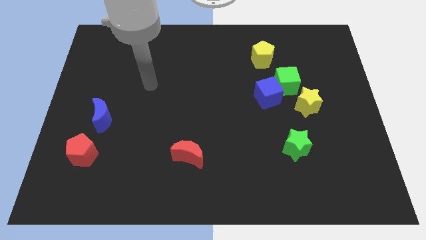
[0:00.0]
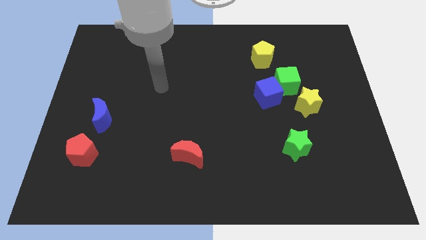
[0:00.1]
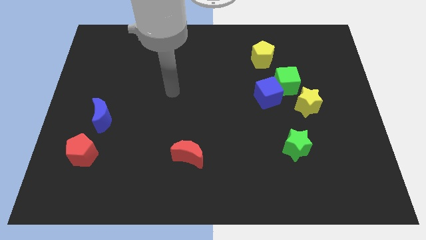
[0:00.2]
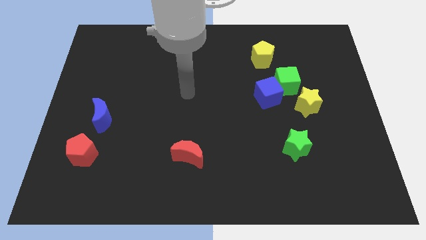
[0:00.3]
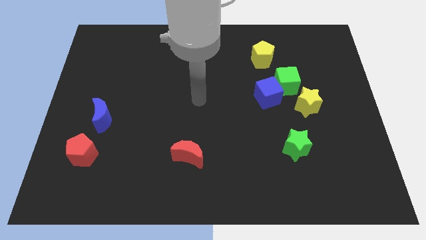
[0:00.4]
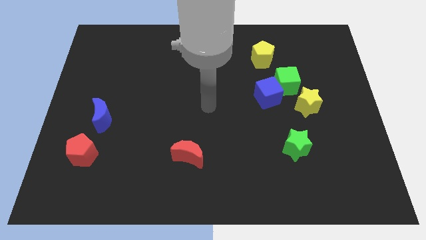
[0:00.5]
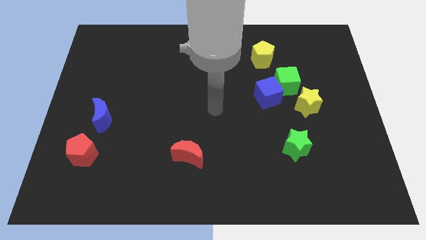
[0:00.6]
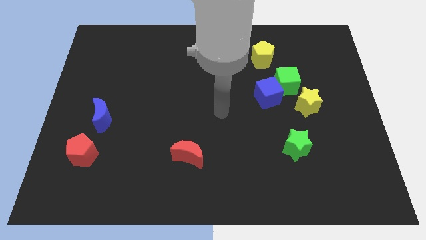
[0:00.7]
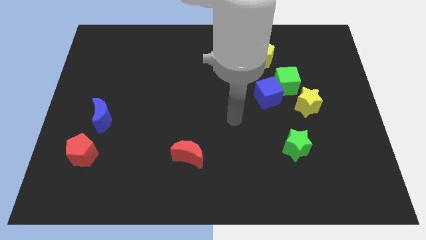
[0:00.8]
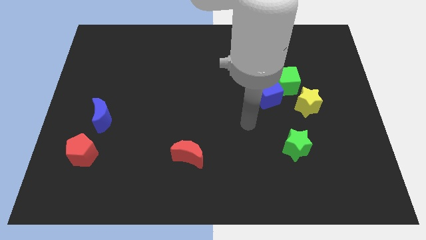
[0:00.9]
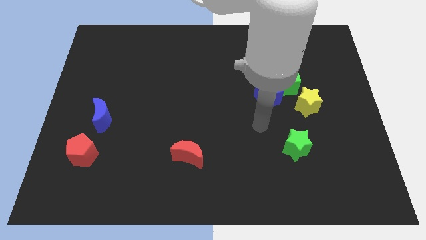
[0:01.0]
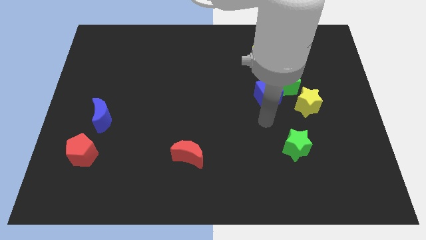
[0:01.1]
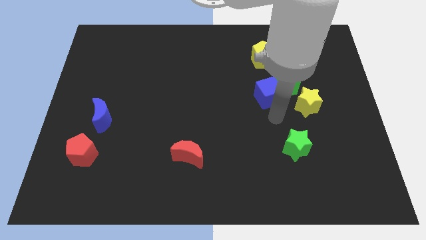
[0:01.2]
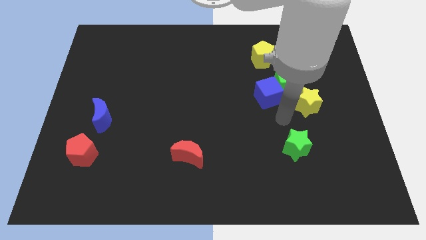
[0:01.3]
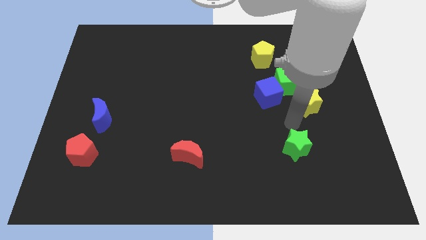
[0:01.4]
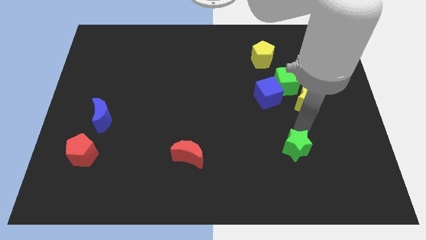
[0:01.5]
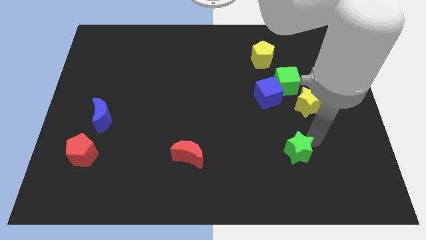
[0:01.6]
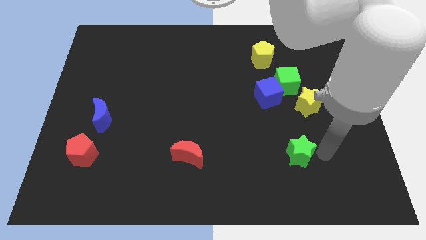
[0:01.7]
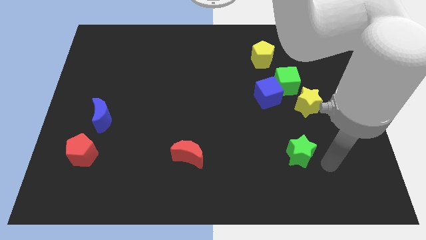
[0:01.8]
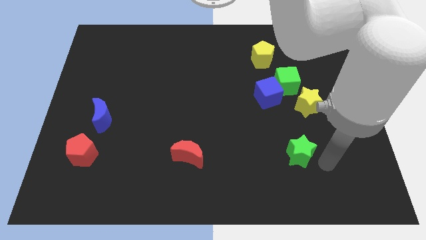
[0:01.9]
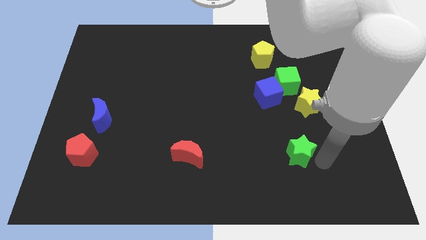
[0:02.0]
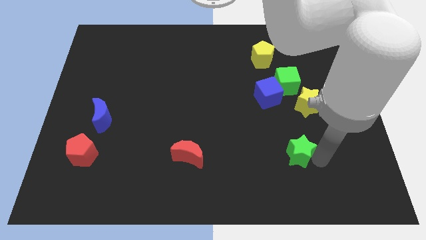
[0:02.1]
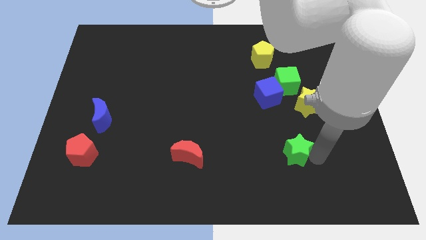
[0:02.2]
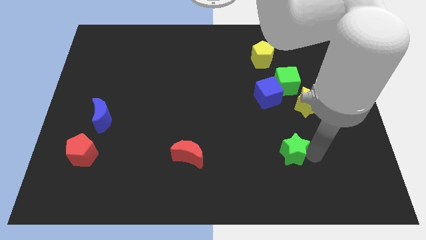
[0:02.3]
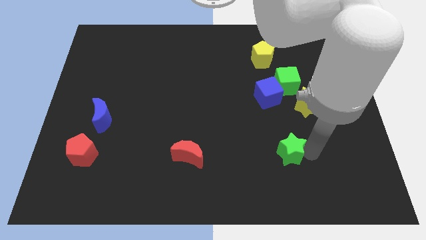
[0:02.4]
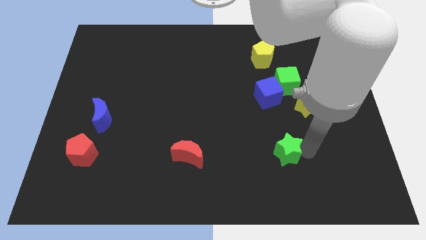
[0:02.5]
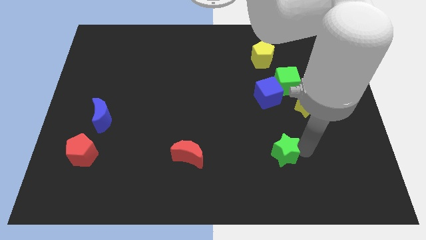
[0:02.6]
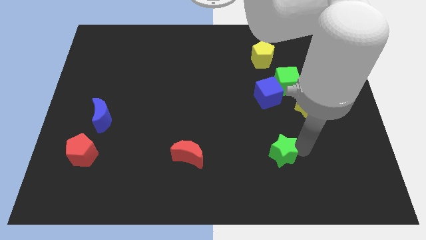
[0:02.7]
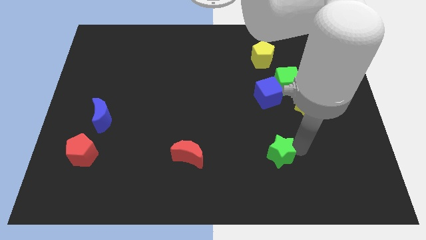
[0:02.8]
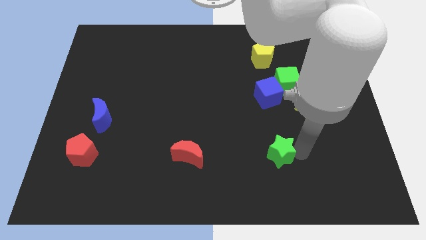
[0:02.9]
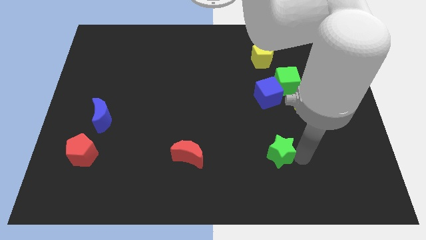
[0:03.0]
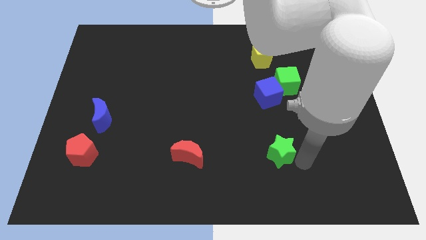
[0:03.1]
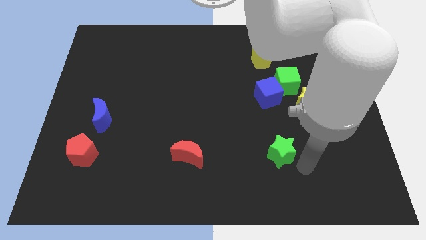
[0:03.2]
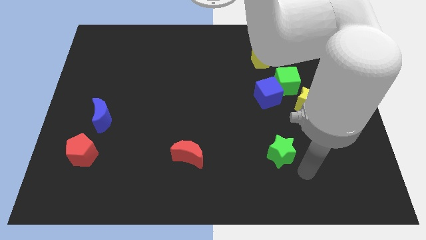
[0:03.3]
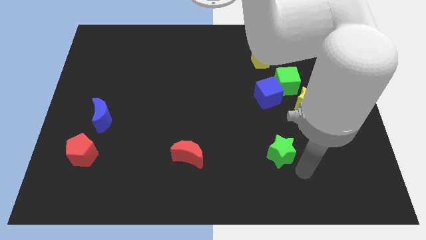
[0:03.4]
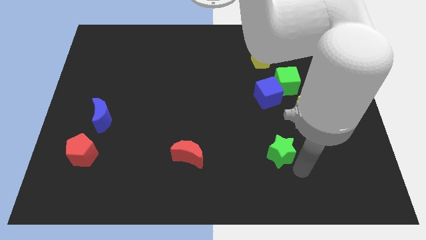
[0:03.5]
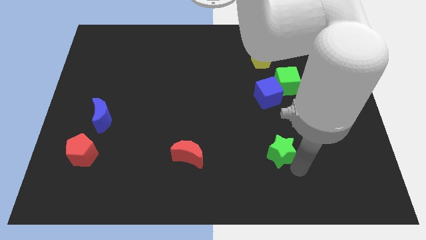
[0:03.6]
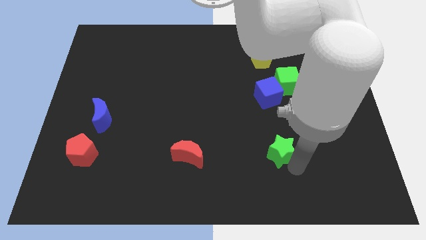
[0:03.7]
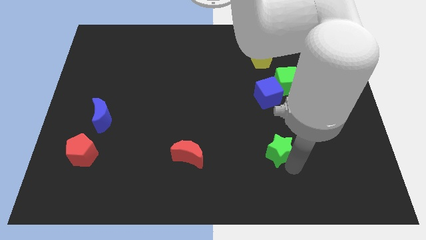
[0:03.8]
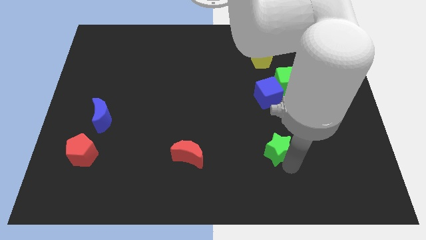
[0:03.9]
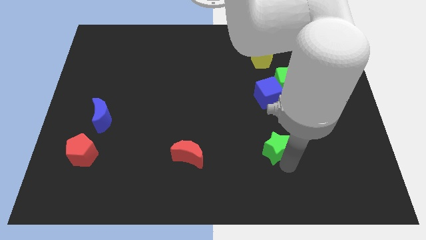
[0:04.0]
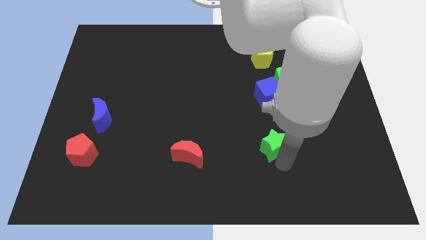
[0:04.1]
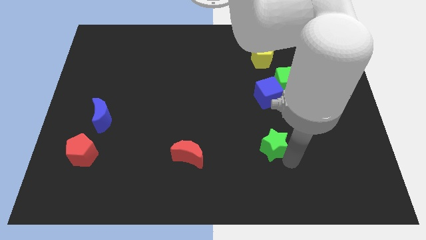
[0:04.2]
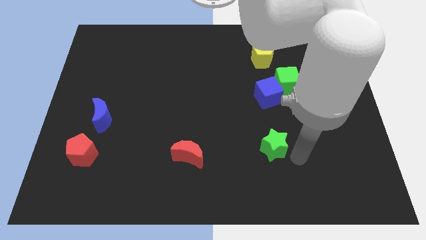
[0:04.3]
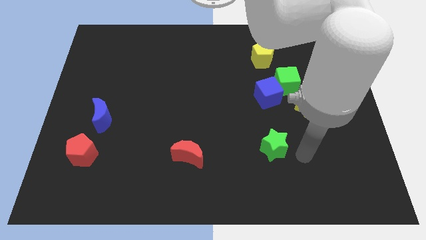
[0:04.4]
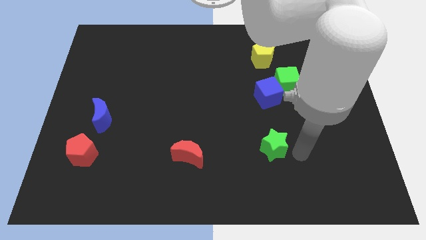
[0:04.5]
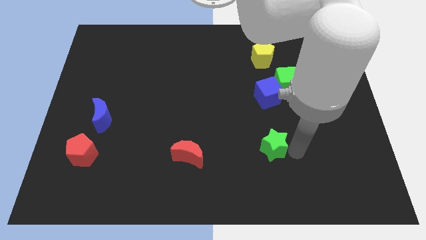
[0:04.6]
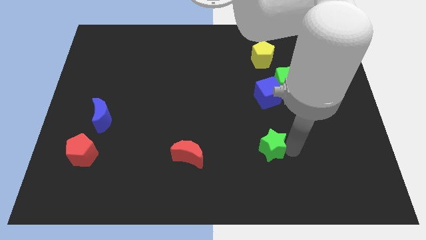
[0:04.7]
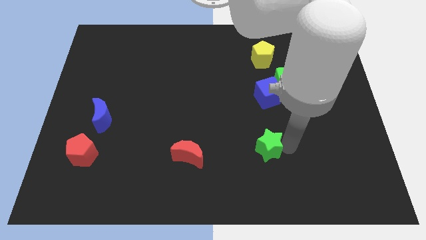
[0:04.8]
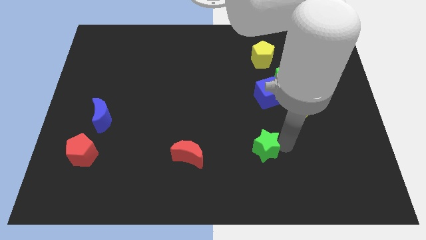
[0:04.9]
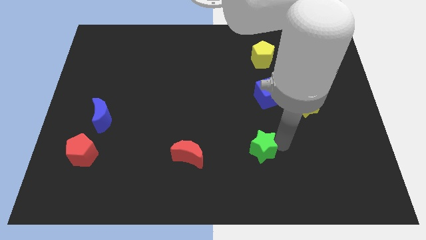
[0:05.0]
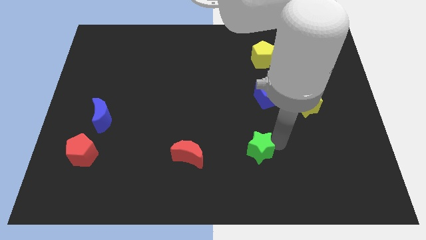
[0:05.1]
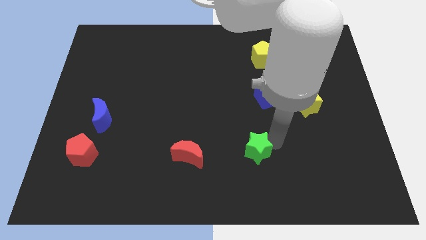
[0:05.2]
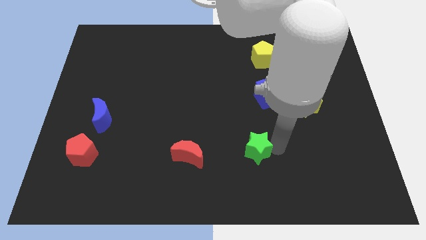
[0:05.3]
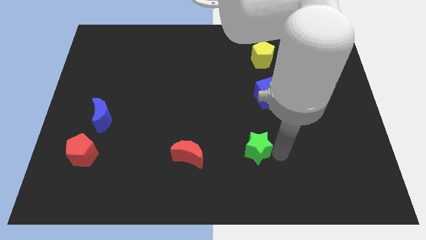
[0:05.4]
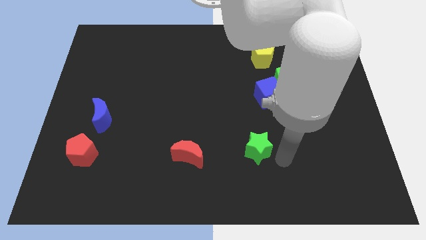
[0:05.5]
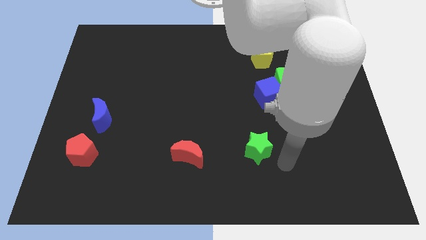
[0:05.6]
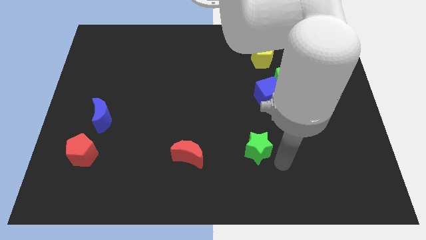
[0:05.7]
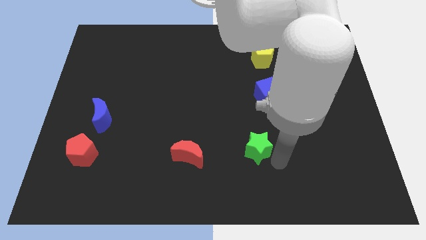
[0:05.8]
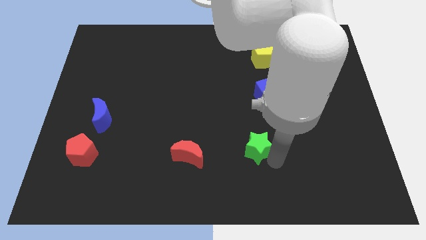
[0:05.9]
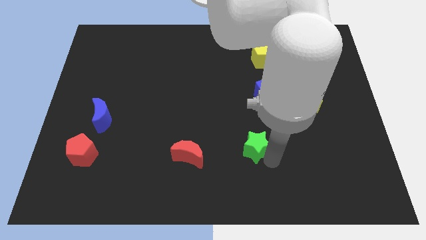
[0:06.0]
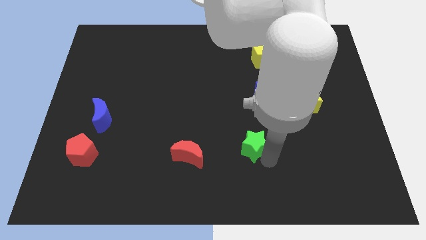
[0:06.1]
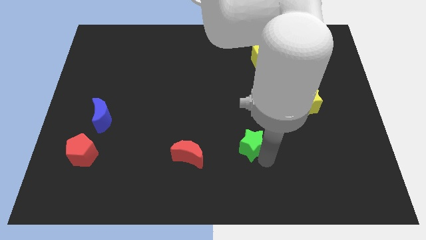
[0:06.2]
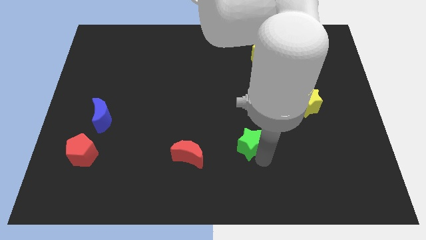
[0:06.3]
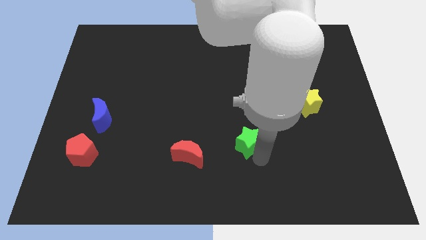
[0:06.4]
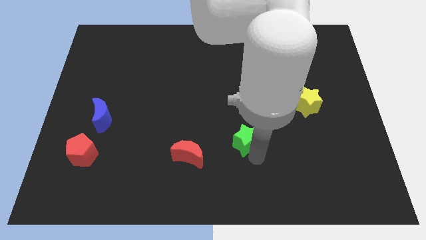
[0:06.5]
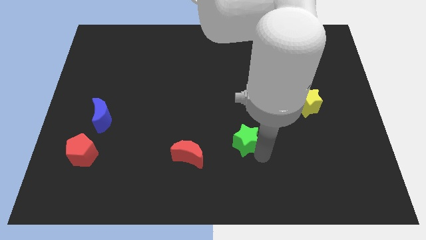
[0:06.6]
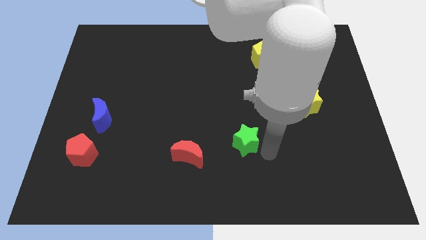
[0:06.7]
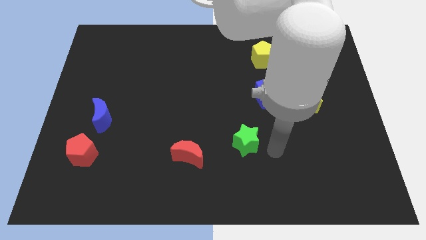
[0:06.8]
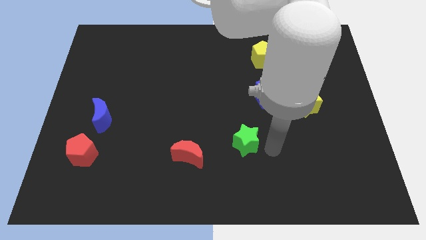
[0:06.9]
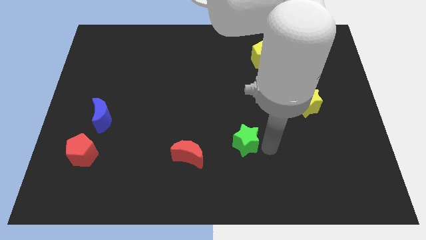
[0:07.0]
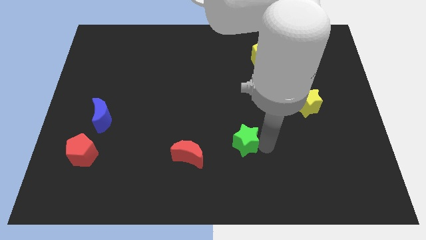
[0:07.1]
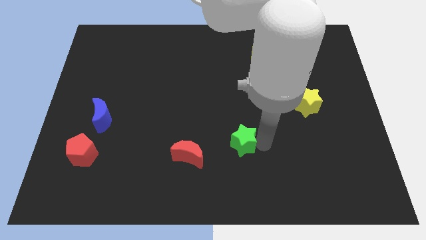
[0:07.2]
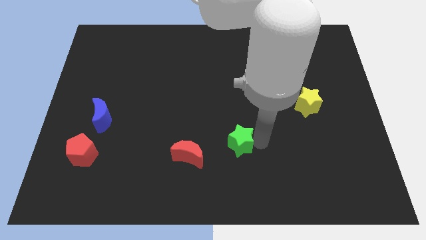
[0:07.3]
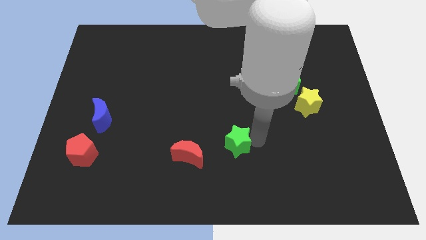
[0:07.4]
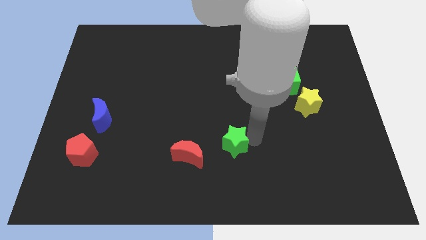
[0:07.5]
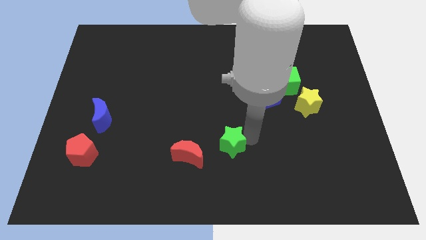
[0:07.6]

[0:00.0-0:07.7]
push the green star to the top right side of the red moon
